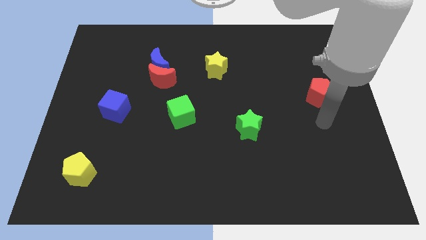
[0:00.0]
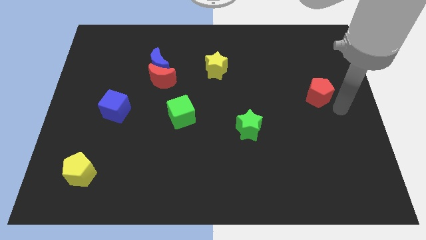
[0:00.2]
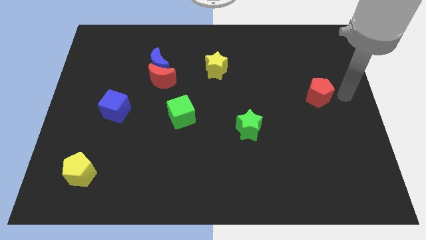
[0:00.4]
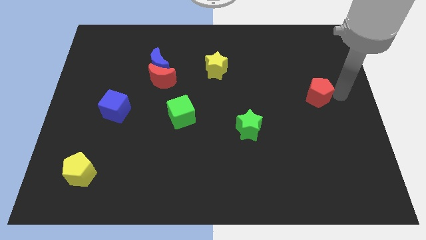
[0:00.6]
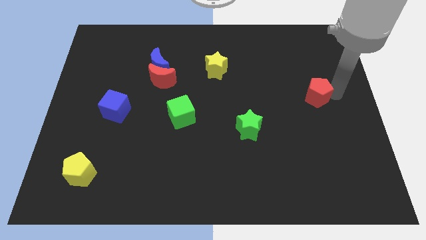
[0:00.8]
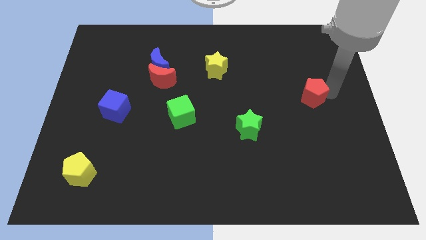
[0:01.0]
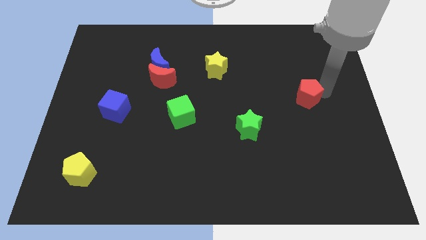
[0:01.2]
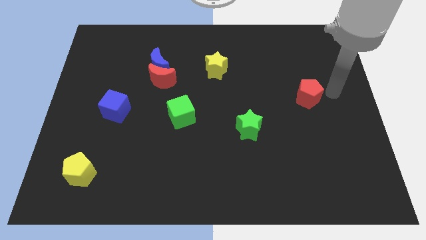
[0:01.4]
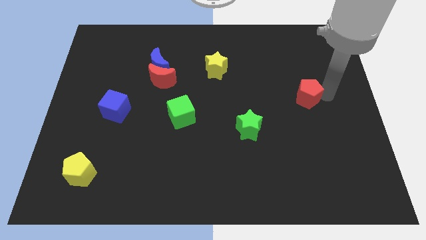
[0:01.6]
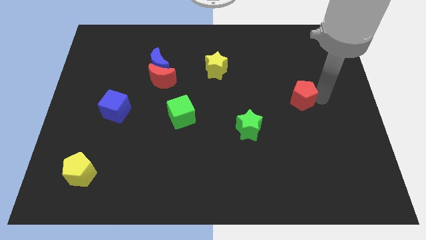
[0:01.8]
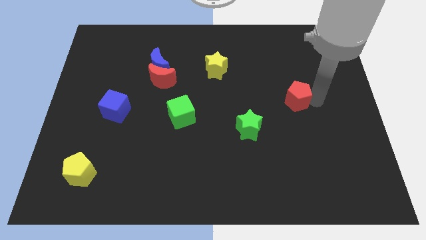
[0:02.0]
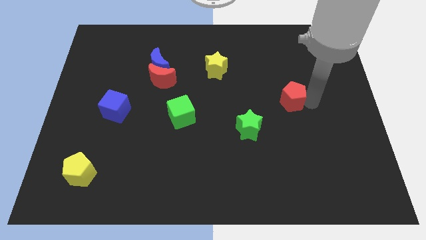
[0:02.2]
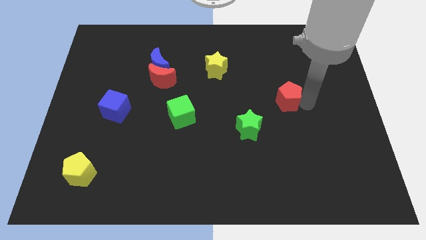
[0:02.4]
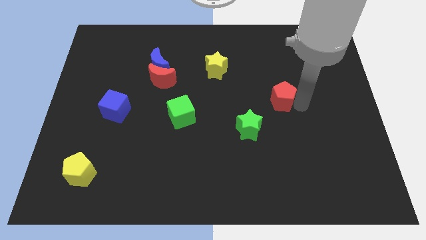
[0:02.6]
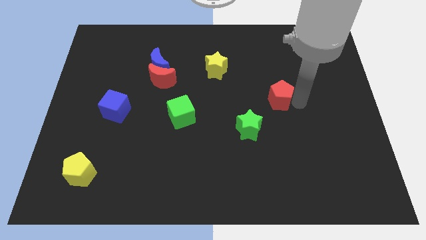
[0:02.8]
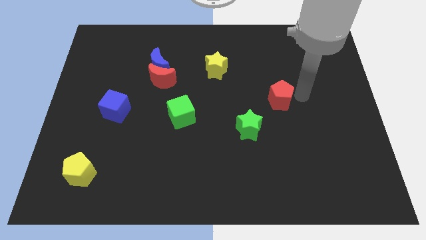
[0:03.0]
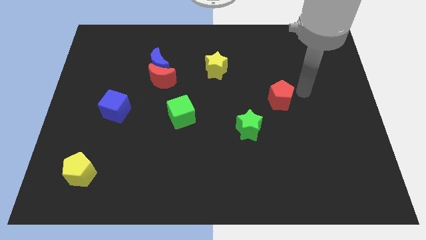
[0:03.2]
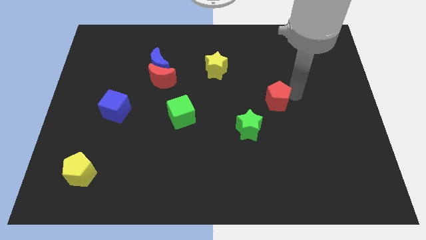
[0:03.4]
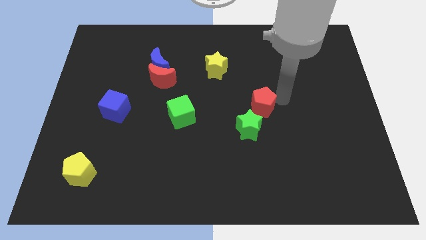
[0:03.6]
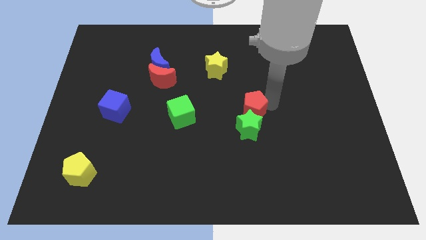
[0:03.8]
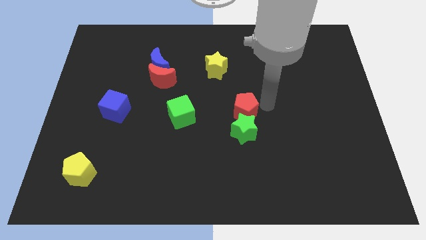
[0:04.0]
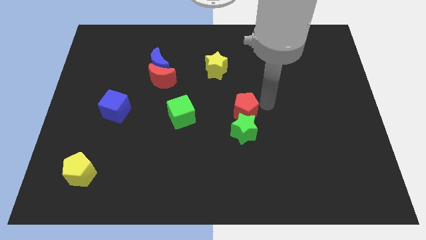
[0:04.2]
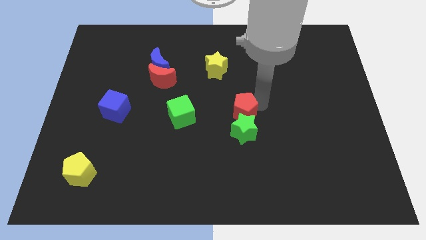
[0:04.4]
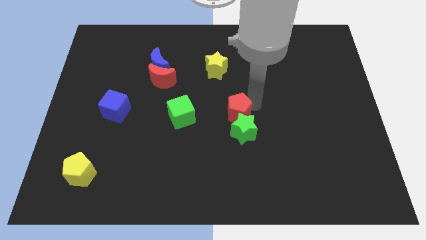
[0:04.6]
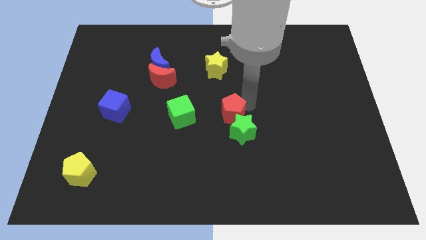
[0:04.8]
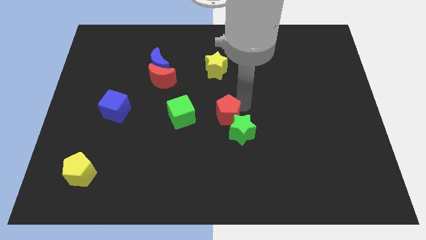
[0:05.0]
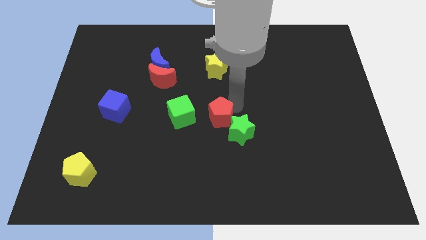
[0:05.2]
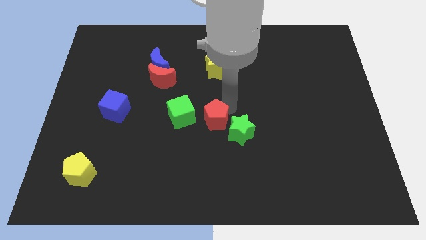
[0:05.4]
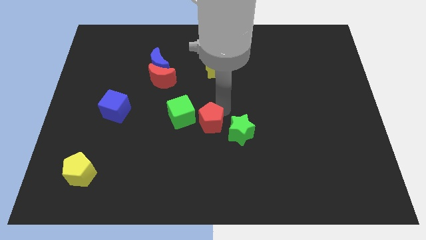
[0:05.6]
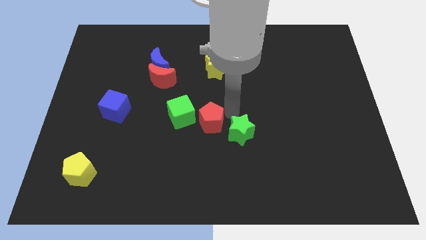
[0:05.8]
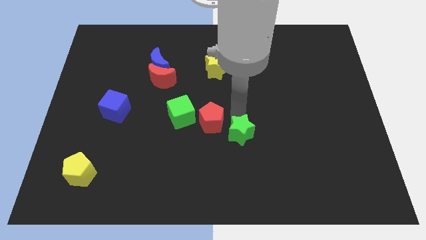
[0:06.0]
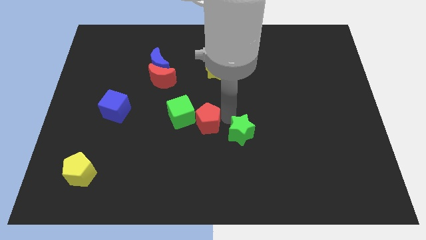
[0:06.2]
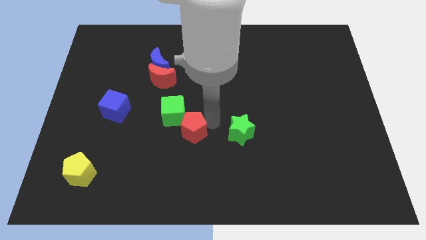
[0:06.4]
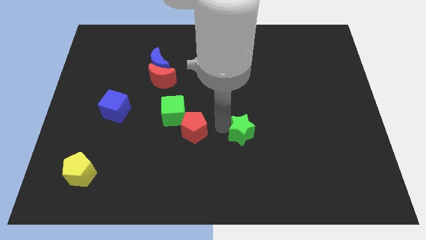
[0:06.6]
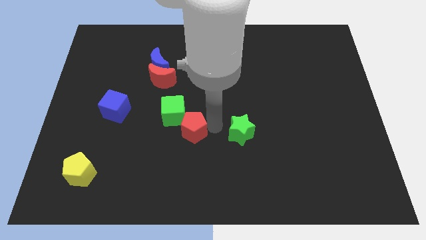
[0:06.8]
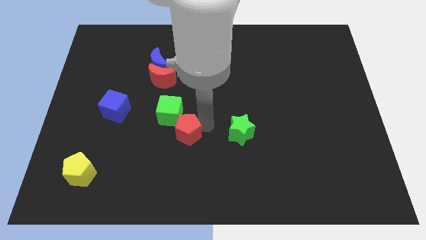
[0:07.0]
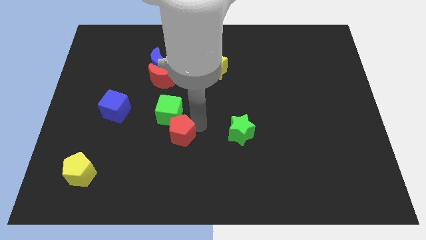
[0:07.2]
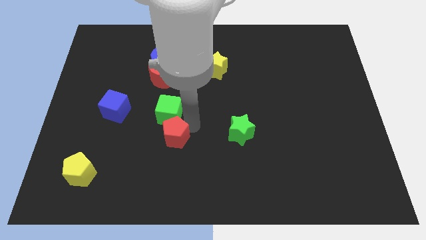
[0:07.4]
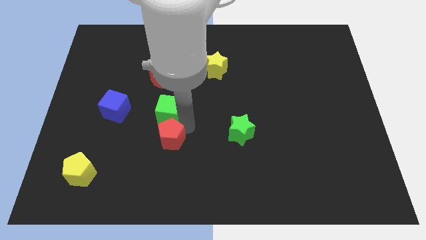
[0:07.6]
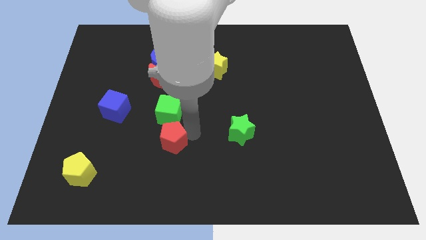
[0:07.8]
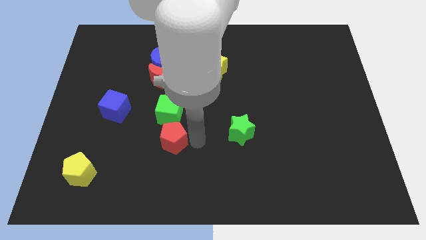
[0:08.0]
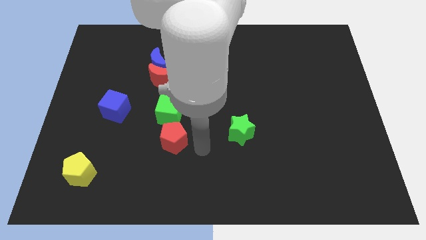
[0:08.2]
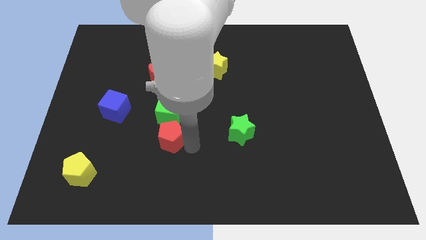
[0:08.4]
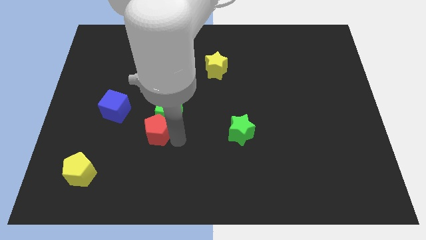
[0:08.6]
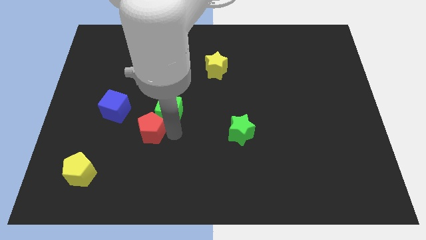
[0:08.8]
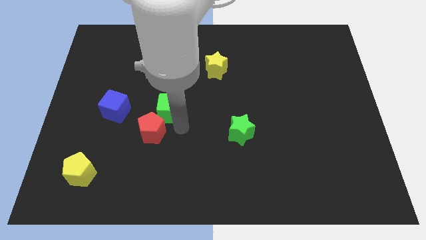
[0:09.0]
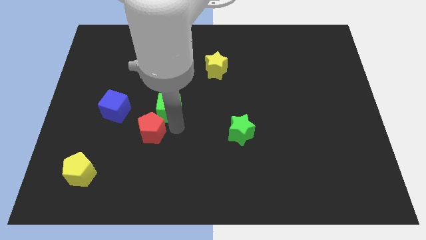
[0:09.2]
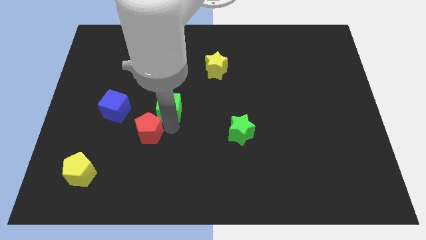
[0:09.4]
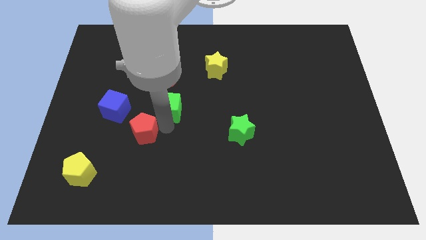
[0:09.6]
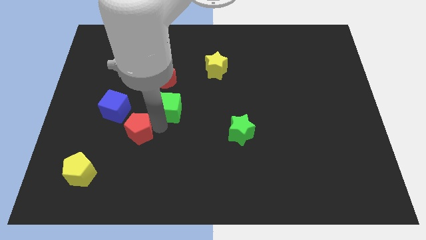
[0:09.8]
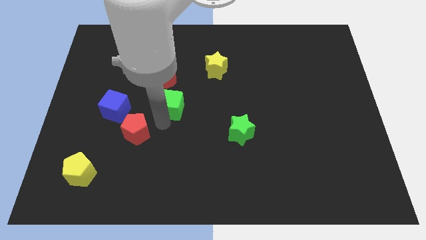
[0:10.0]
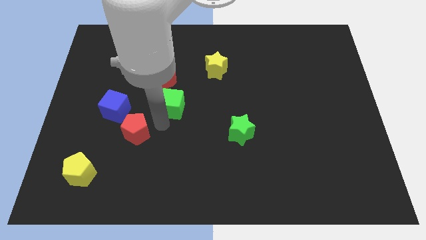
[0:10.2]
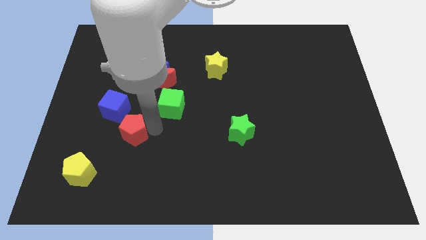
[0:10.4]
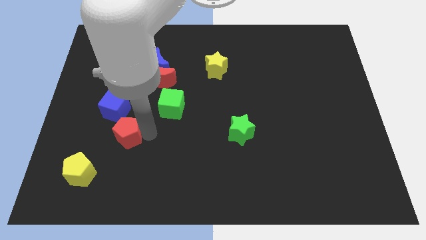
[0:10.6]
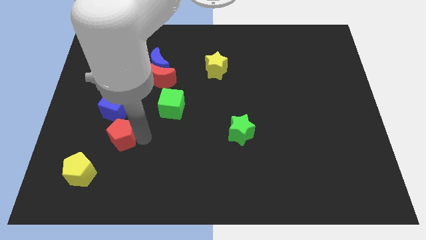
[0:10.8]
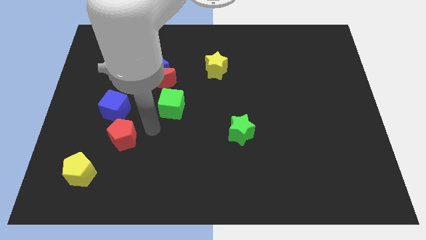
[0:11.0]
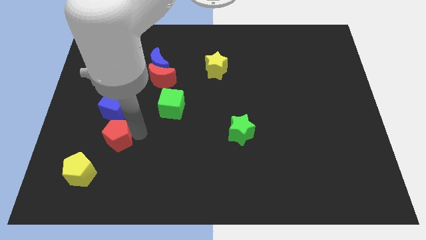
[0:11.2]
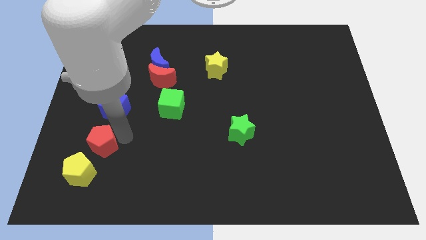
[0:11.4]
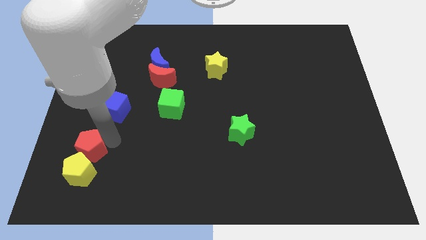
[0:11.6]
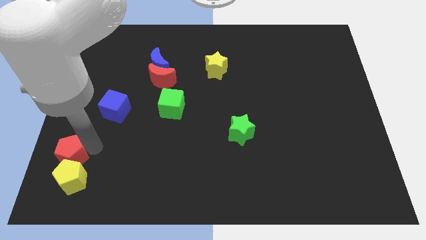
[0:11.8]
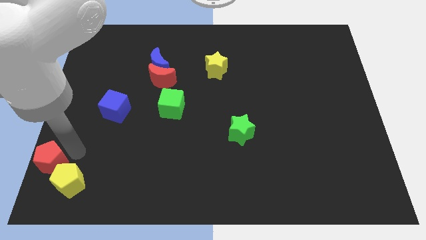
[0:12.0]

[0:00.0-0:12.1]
put the red pentagon to the bottom left of the board
